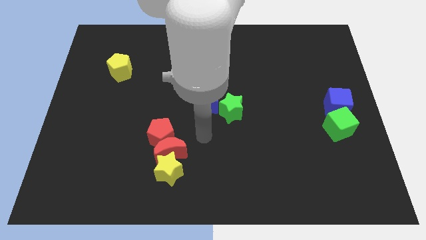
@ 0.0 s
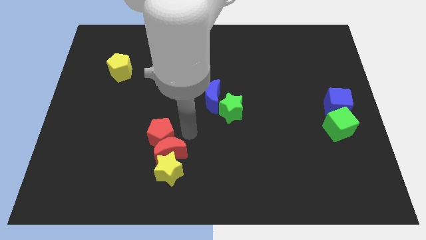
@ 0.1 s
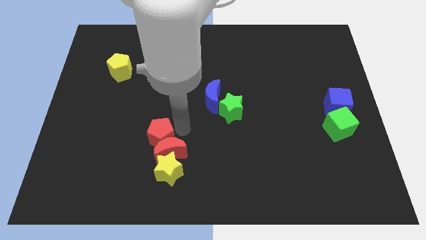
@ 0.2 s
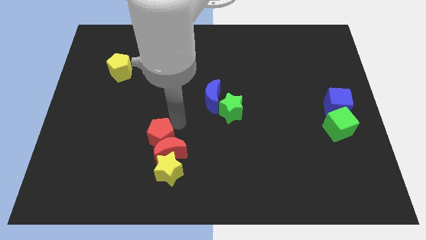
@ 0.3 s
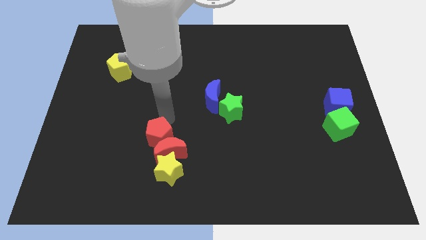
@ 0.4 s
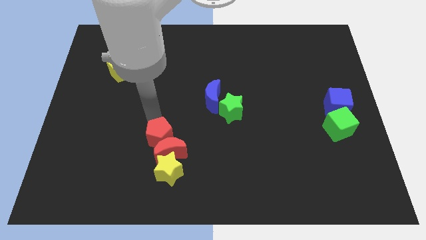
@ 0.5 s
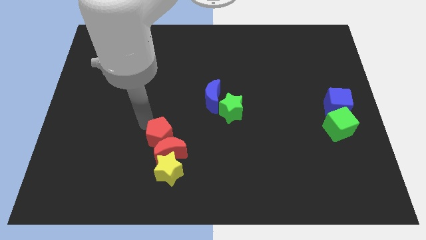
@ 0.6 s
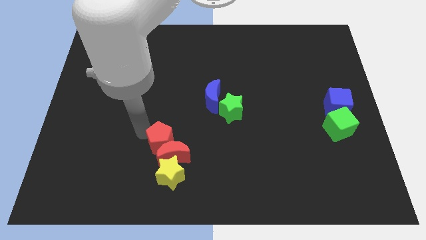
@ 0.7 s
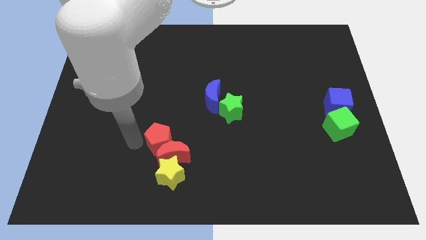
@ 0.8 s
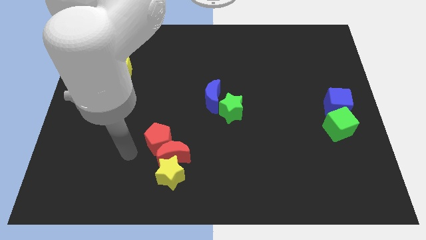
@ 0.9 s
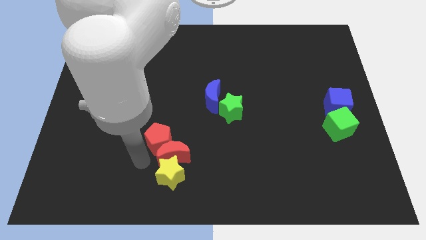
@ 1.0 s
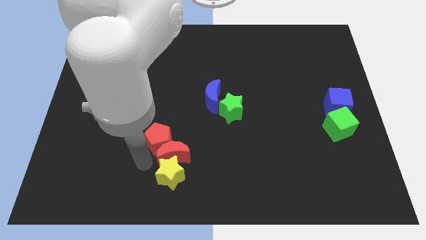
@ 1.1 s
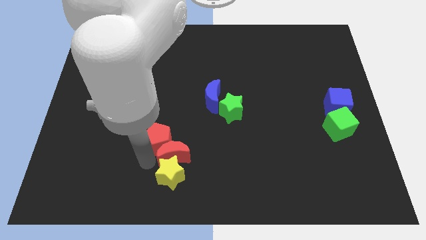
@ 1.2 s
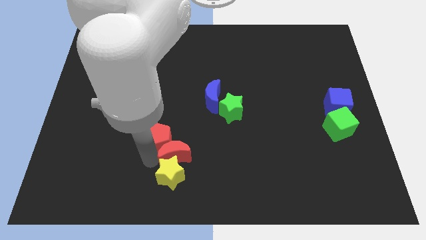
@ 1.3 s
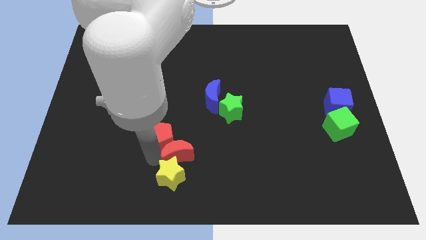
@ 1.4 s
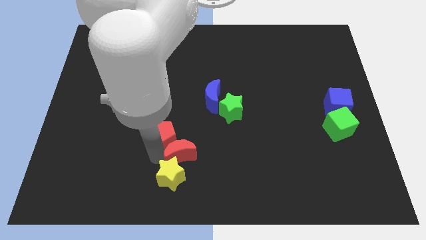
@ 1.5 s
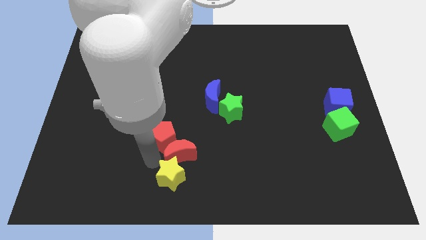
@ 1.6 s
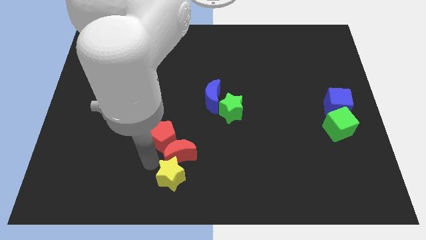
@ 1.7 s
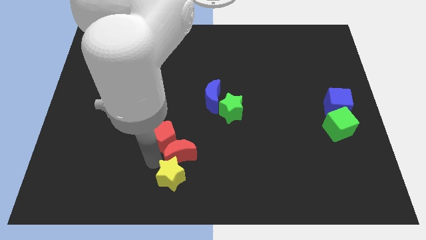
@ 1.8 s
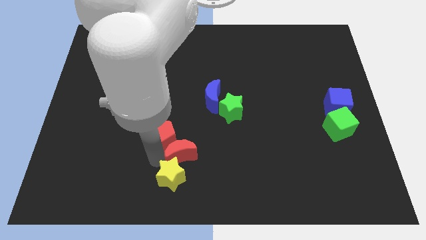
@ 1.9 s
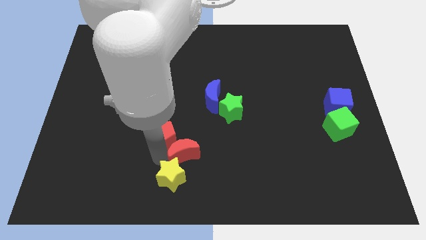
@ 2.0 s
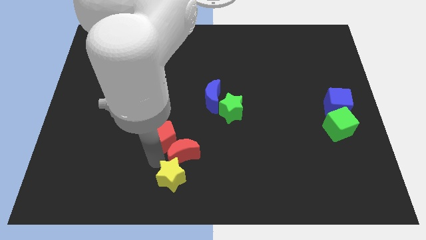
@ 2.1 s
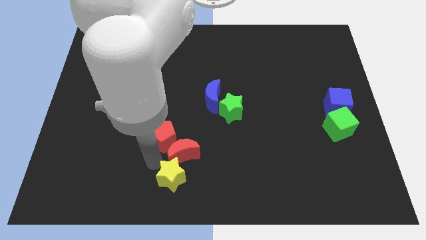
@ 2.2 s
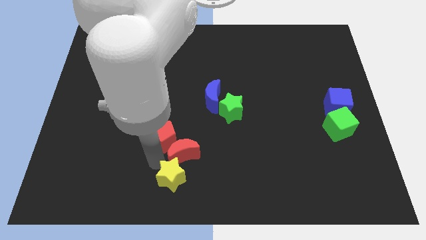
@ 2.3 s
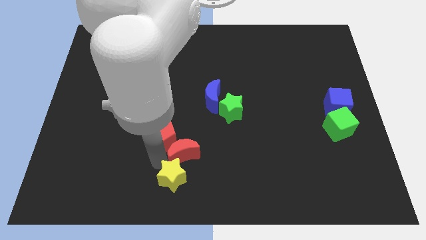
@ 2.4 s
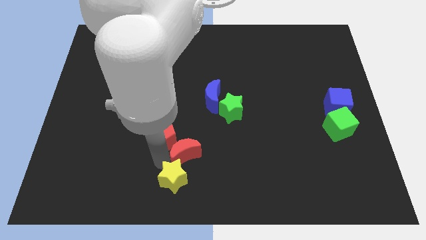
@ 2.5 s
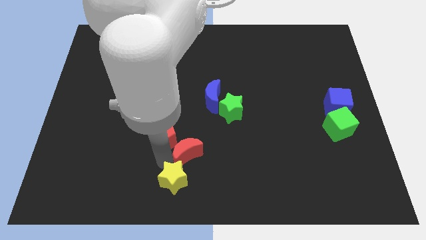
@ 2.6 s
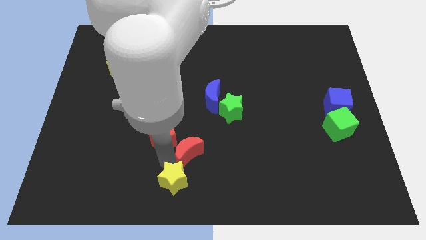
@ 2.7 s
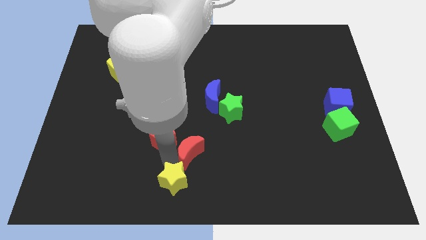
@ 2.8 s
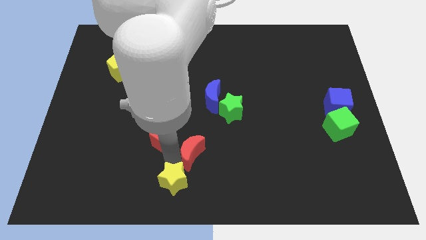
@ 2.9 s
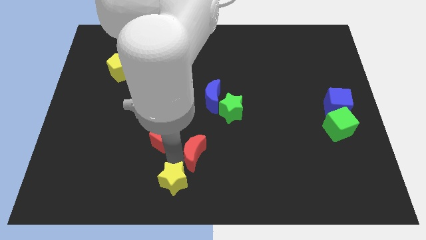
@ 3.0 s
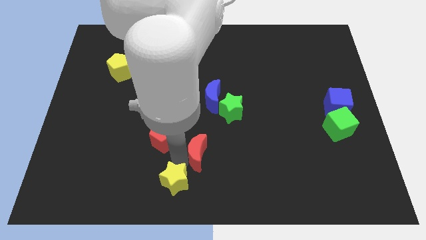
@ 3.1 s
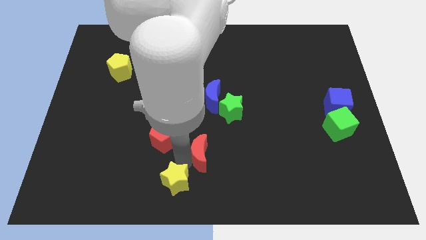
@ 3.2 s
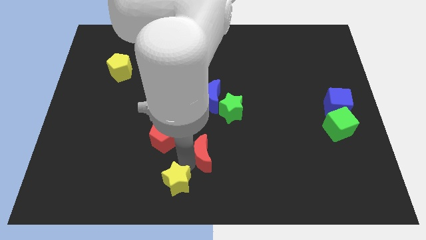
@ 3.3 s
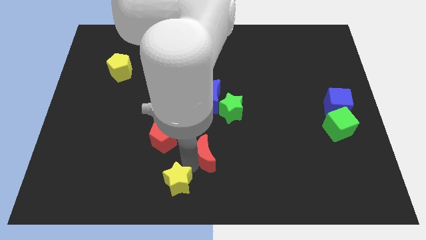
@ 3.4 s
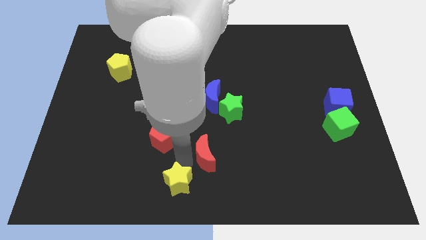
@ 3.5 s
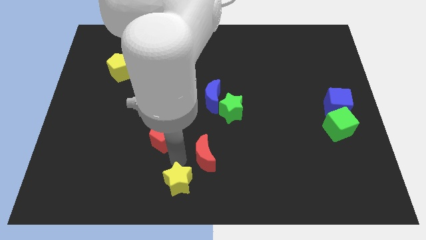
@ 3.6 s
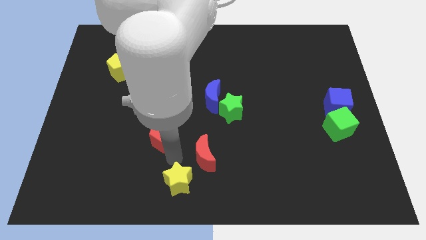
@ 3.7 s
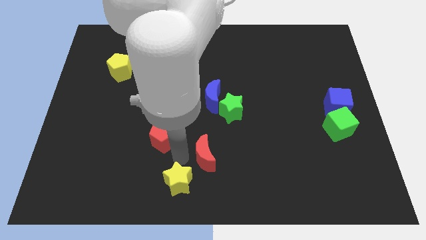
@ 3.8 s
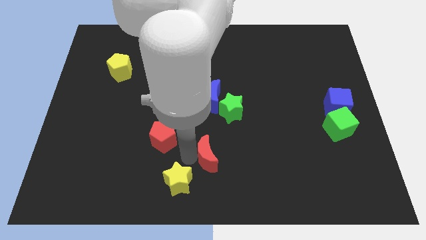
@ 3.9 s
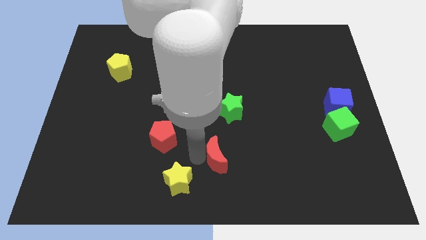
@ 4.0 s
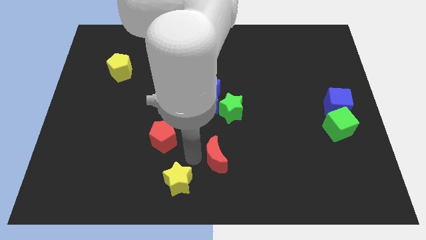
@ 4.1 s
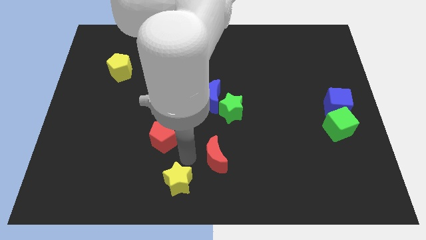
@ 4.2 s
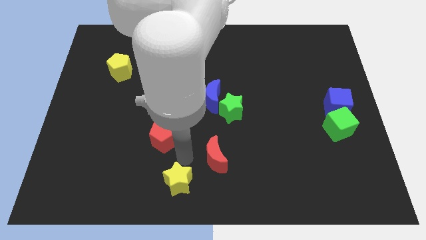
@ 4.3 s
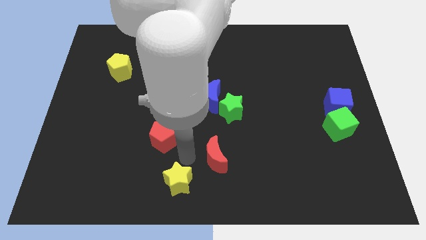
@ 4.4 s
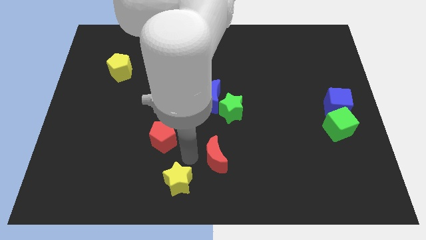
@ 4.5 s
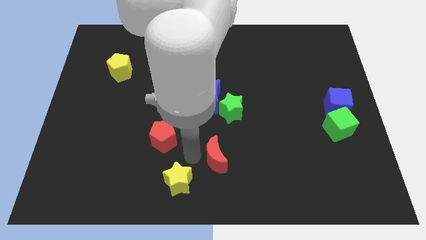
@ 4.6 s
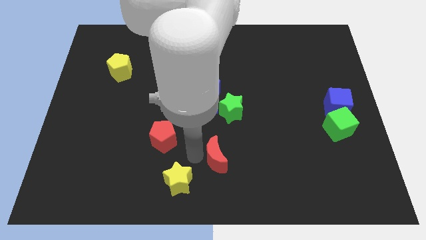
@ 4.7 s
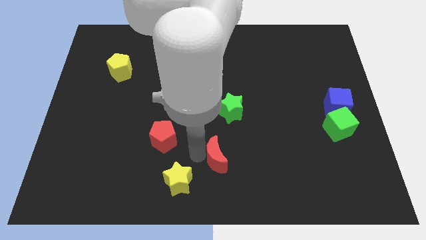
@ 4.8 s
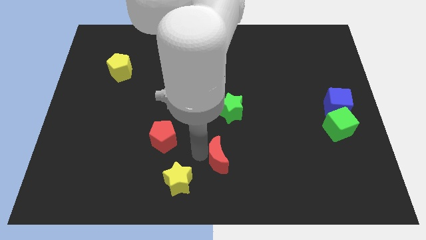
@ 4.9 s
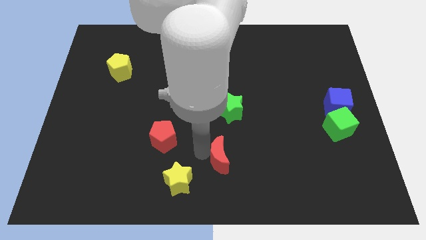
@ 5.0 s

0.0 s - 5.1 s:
pull the red moon apart from the yellow star and red pentagon

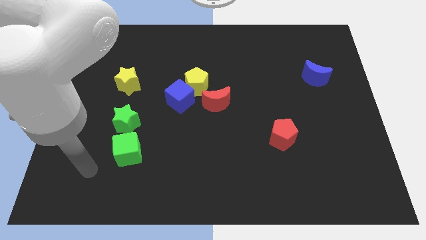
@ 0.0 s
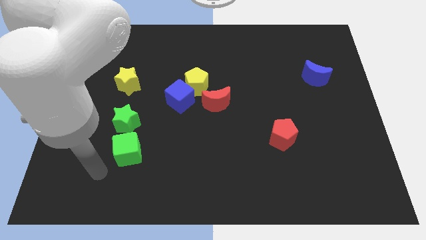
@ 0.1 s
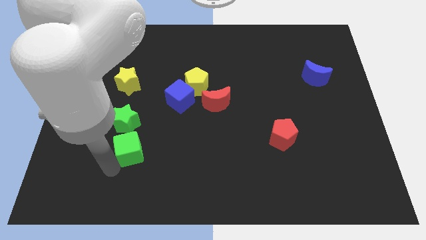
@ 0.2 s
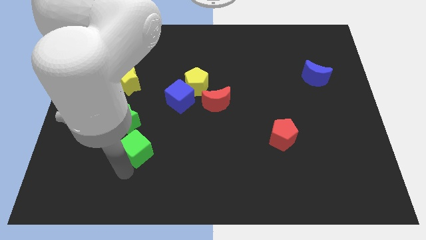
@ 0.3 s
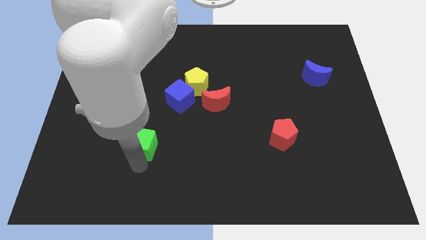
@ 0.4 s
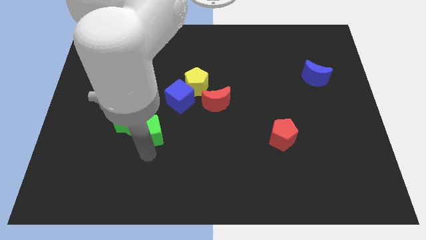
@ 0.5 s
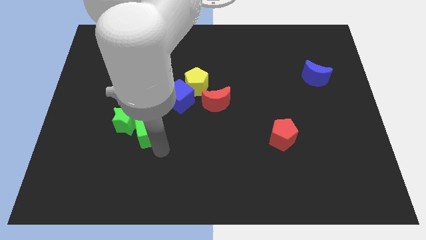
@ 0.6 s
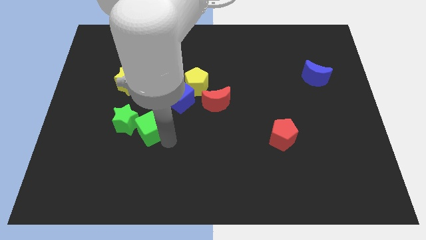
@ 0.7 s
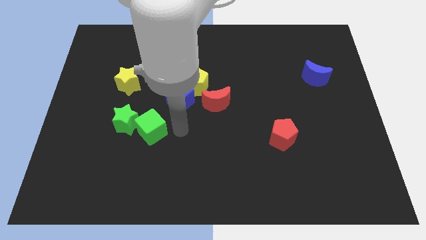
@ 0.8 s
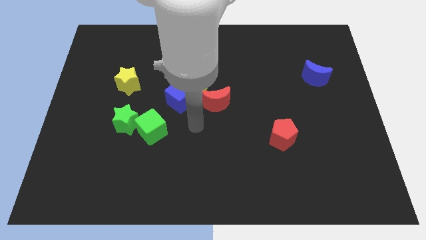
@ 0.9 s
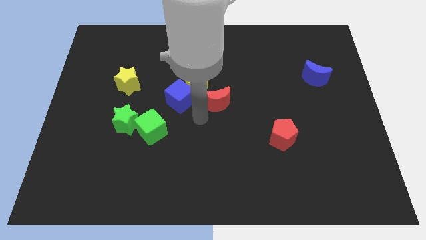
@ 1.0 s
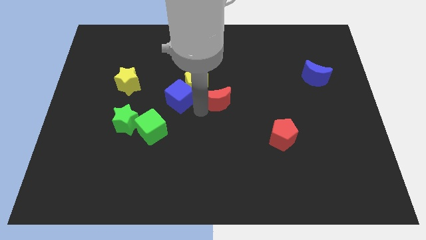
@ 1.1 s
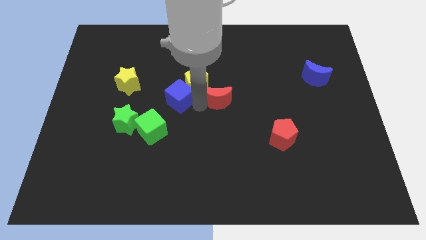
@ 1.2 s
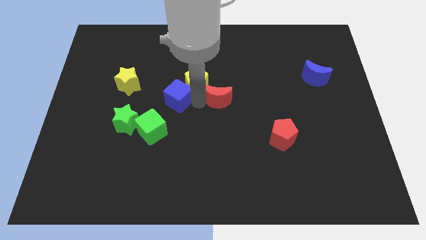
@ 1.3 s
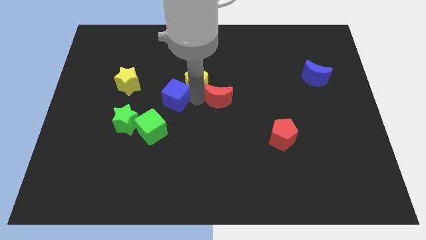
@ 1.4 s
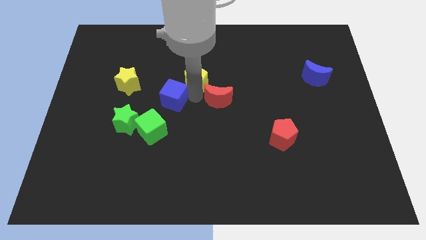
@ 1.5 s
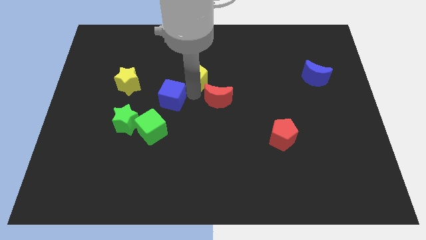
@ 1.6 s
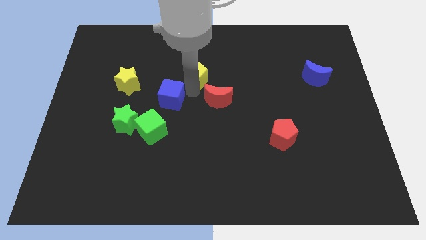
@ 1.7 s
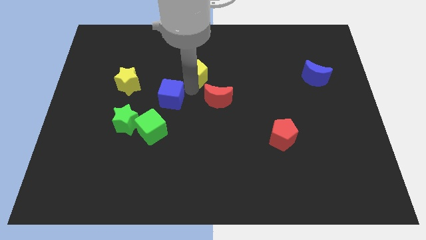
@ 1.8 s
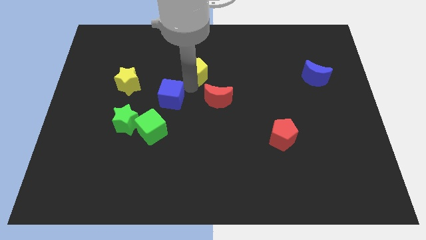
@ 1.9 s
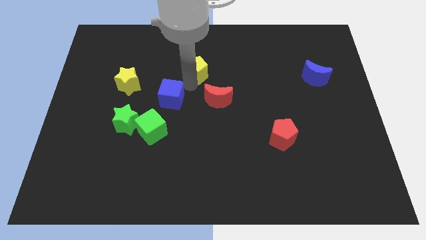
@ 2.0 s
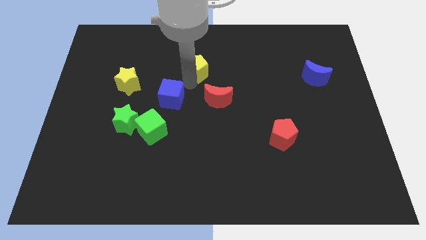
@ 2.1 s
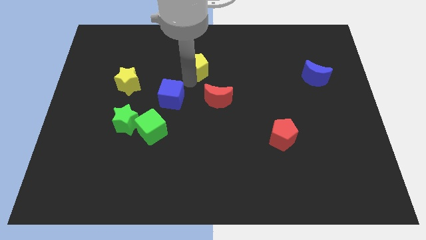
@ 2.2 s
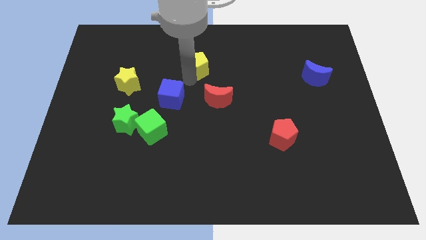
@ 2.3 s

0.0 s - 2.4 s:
separate the yellow pentagon from the blue cube and red moon

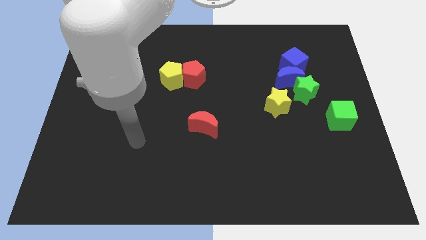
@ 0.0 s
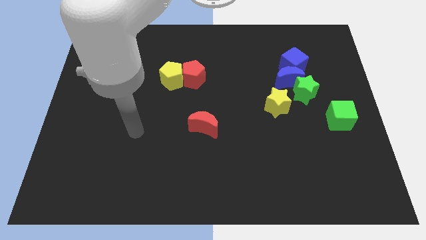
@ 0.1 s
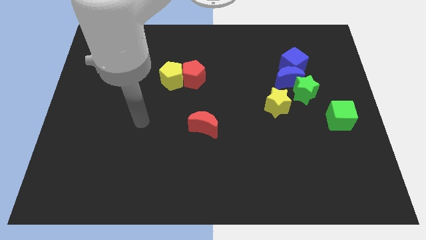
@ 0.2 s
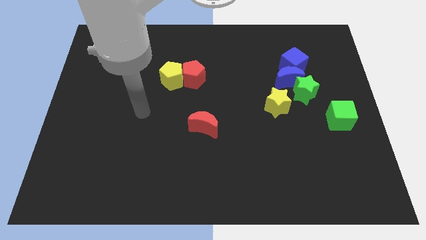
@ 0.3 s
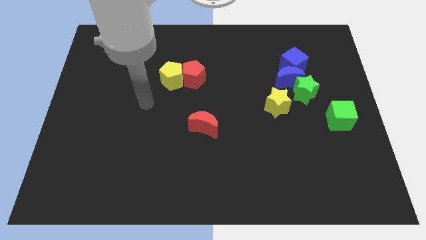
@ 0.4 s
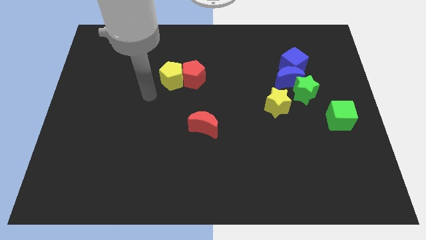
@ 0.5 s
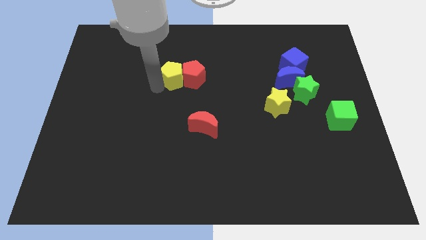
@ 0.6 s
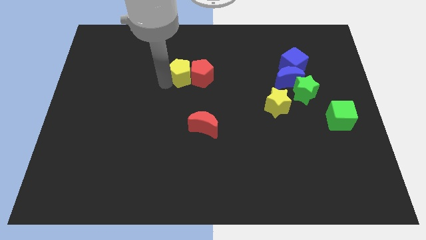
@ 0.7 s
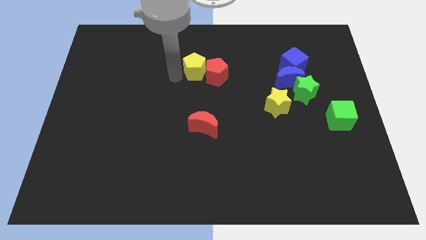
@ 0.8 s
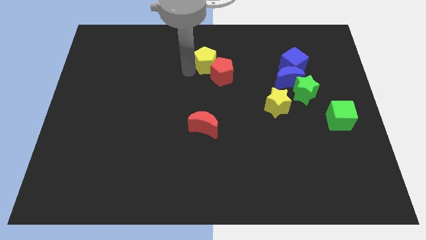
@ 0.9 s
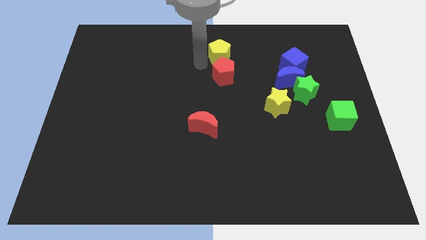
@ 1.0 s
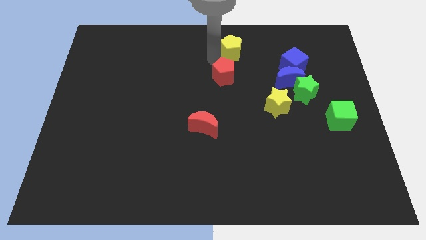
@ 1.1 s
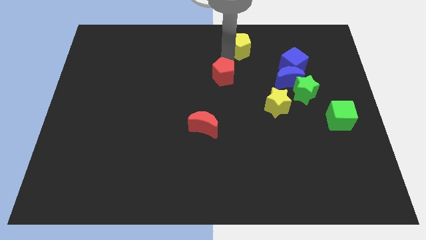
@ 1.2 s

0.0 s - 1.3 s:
pull the red pentagon apart from the yellow pentagon

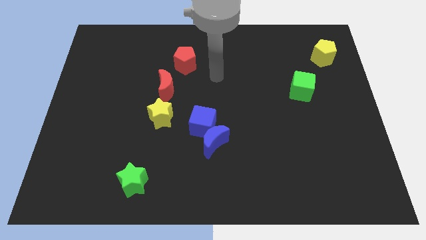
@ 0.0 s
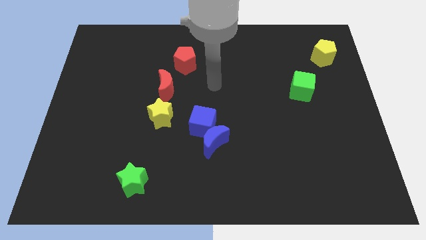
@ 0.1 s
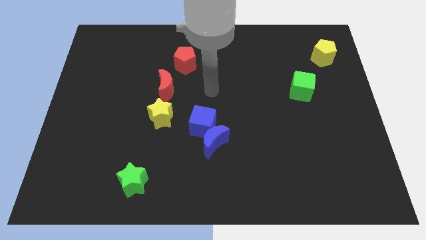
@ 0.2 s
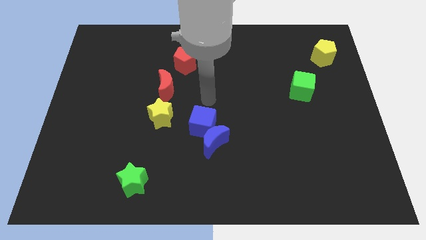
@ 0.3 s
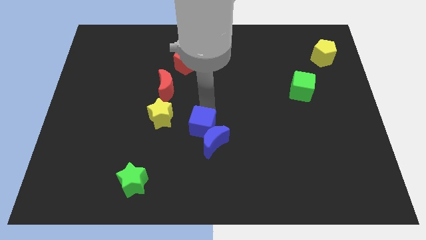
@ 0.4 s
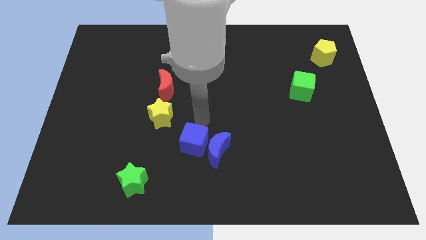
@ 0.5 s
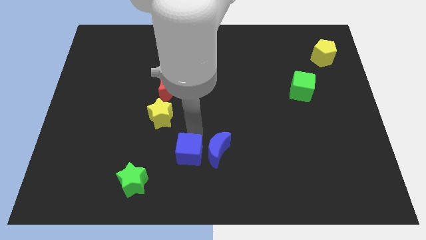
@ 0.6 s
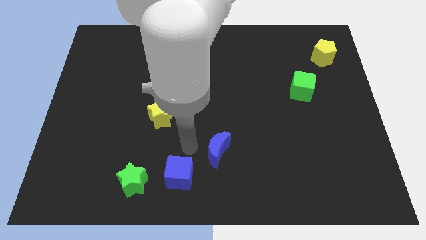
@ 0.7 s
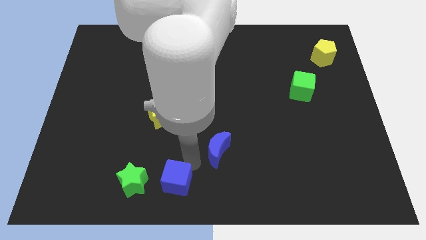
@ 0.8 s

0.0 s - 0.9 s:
separate the blue moon from the blue cube
